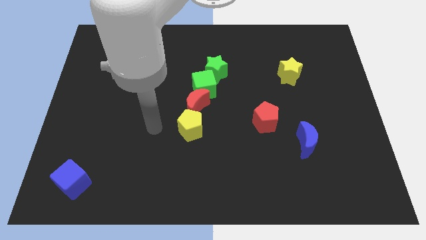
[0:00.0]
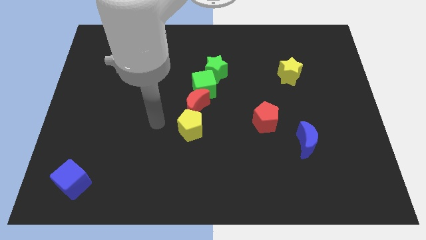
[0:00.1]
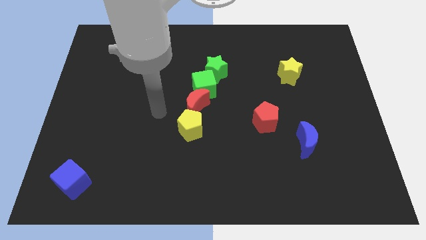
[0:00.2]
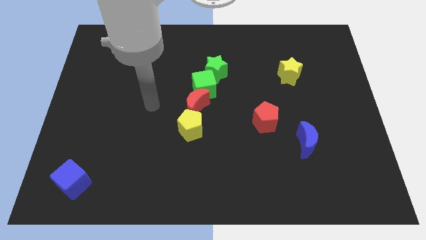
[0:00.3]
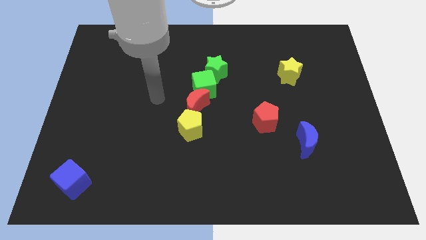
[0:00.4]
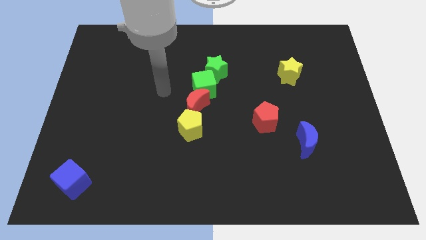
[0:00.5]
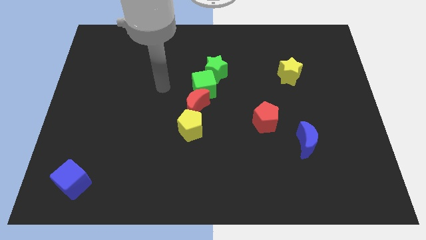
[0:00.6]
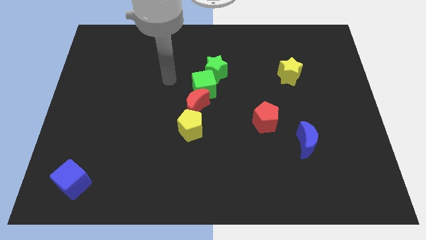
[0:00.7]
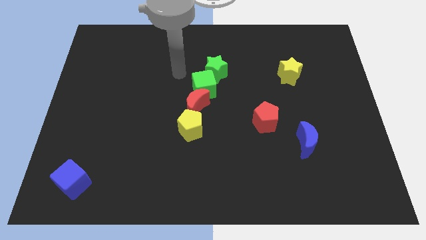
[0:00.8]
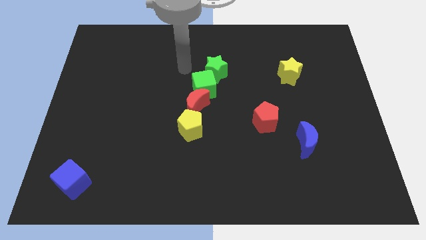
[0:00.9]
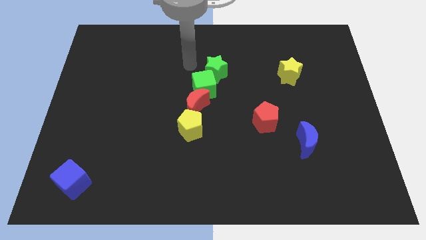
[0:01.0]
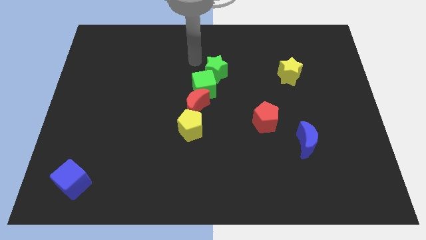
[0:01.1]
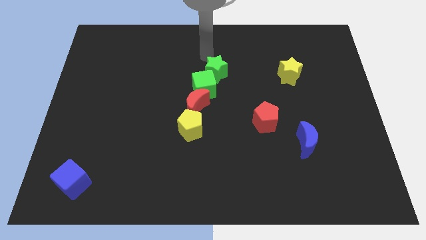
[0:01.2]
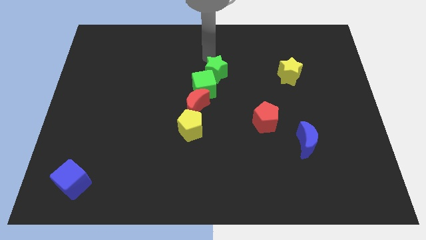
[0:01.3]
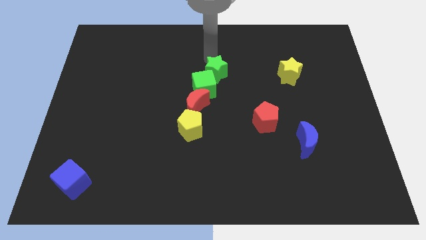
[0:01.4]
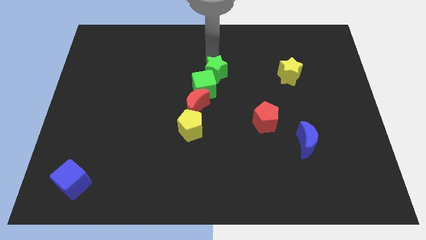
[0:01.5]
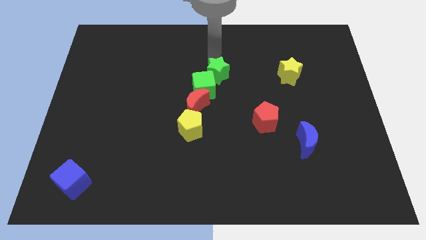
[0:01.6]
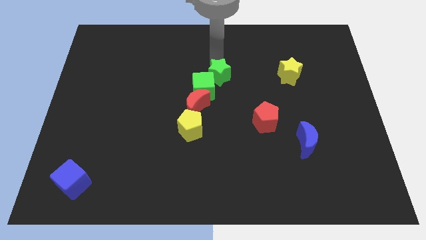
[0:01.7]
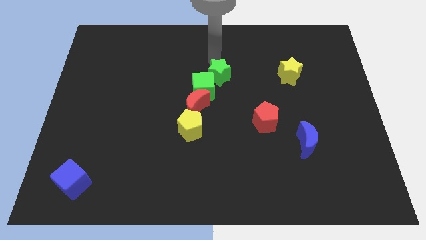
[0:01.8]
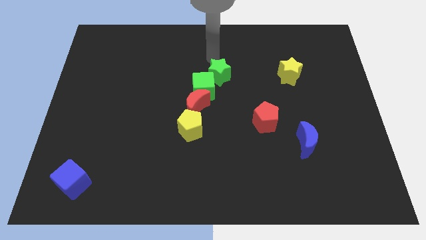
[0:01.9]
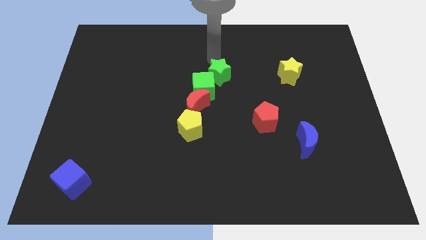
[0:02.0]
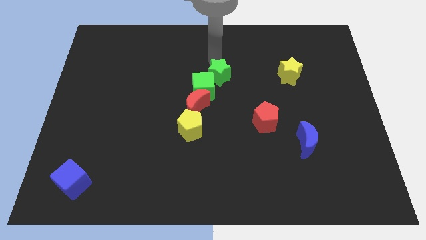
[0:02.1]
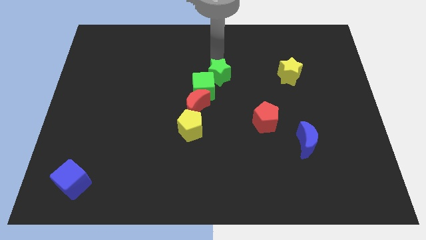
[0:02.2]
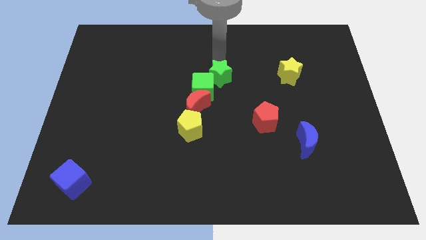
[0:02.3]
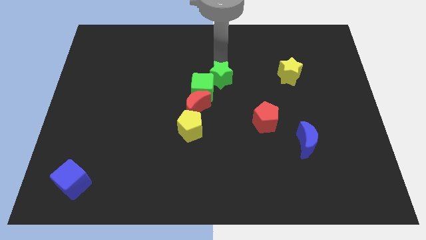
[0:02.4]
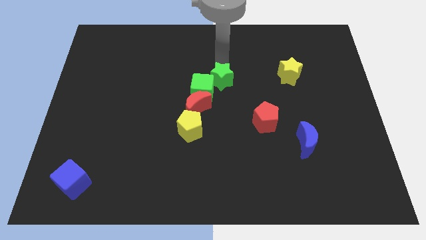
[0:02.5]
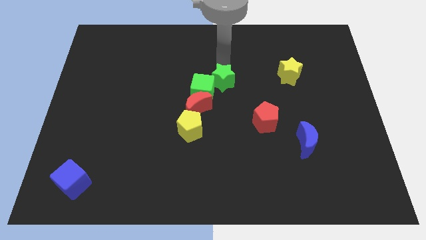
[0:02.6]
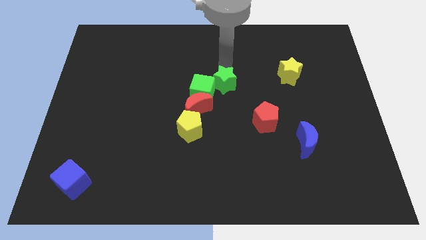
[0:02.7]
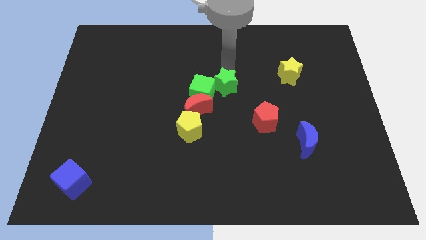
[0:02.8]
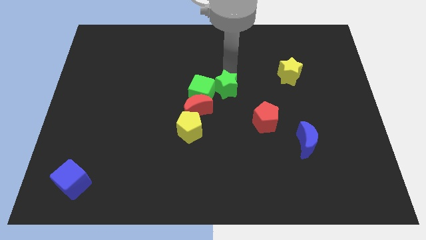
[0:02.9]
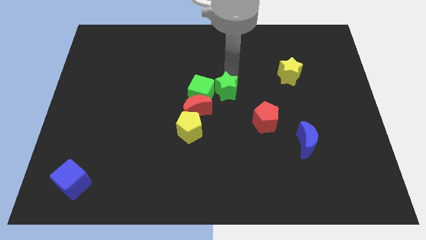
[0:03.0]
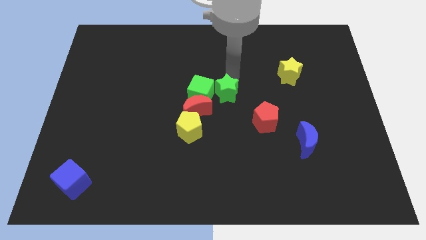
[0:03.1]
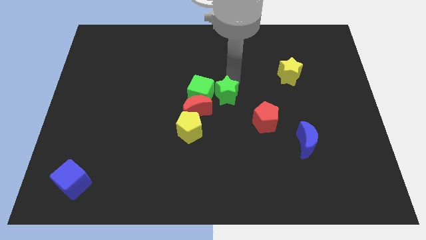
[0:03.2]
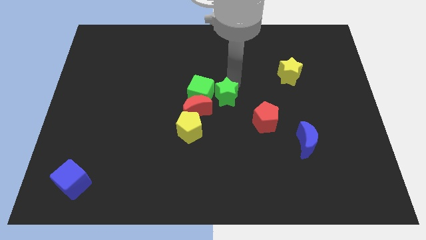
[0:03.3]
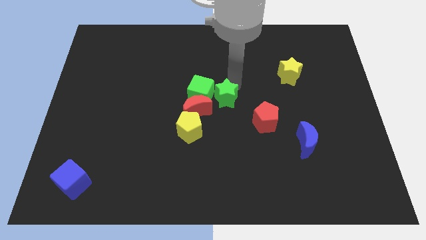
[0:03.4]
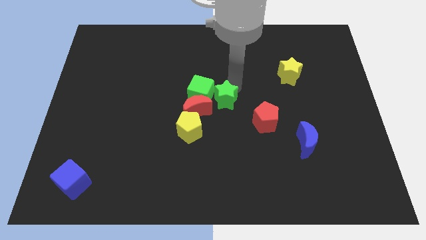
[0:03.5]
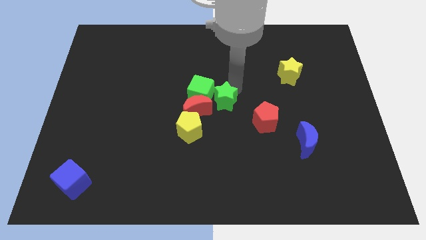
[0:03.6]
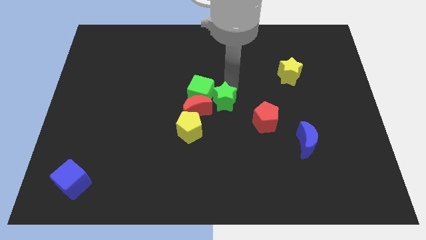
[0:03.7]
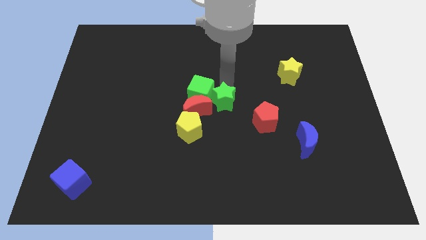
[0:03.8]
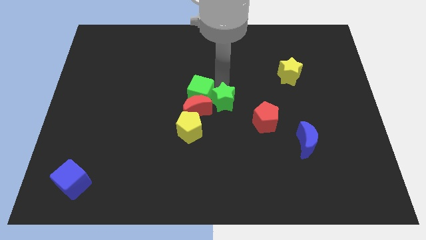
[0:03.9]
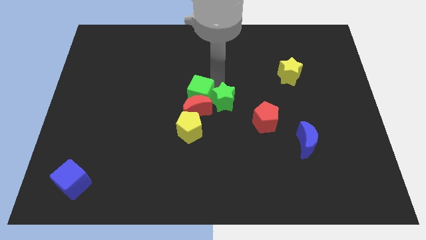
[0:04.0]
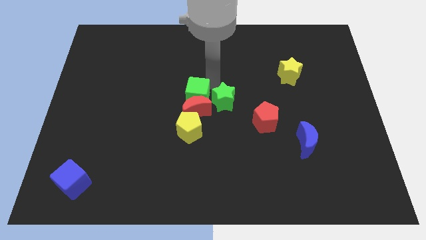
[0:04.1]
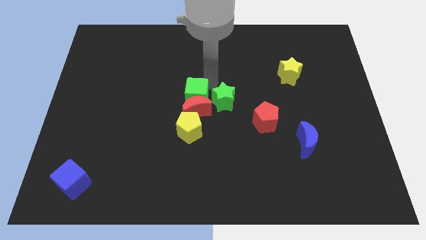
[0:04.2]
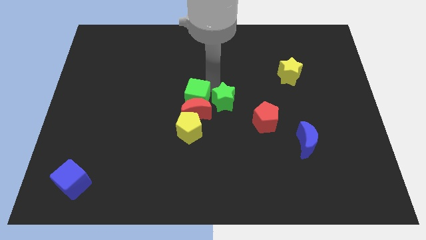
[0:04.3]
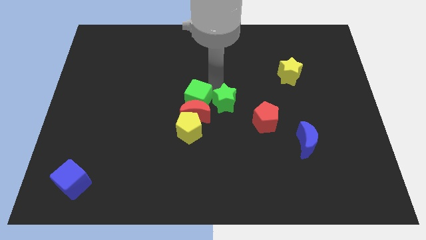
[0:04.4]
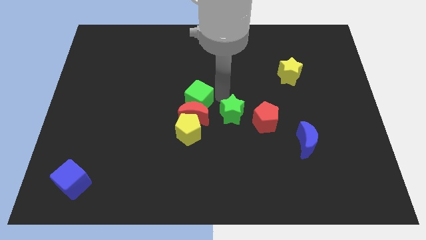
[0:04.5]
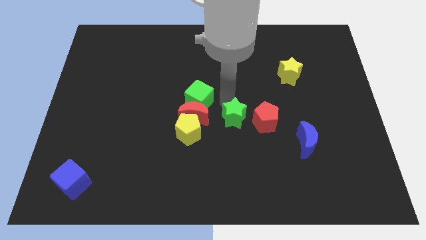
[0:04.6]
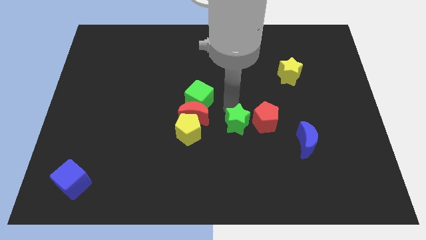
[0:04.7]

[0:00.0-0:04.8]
push the green star to the bottom left of the red pentagon

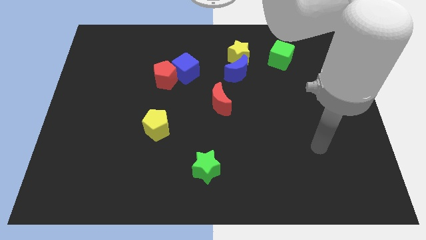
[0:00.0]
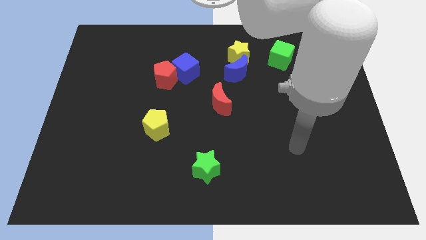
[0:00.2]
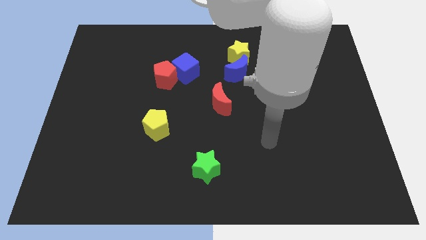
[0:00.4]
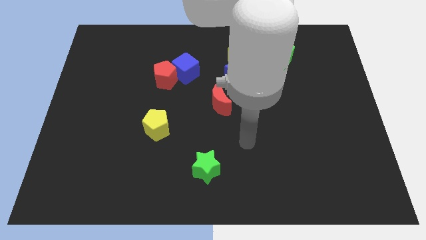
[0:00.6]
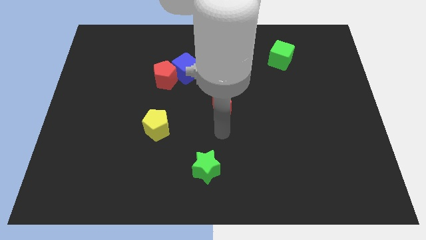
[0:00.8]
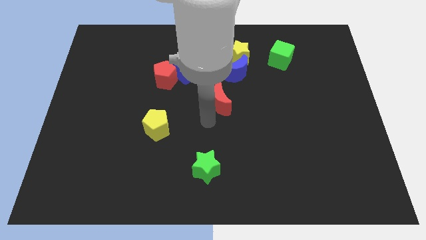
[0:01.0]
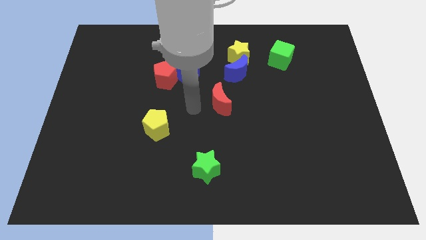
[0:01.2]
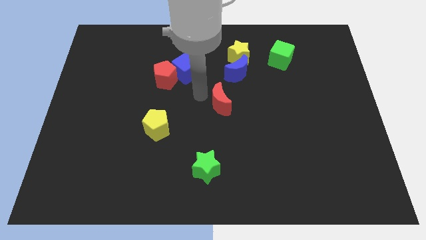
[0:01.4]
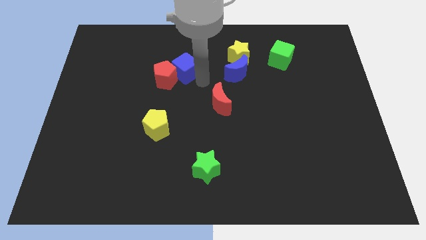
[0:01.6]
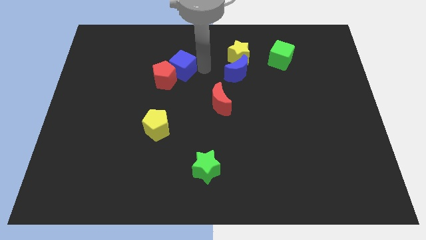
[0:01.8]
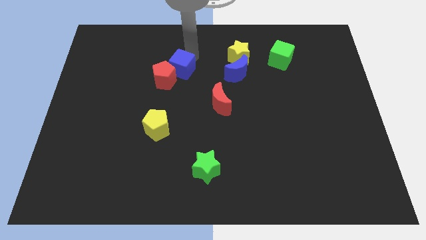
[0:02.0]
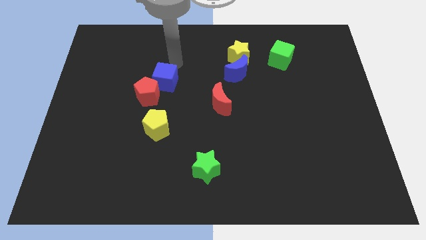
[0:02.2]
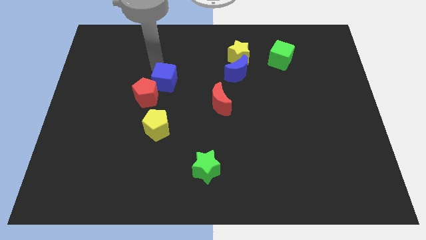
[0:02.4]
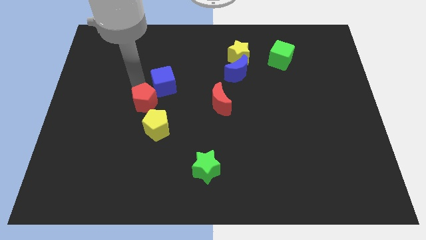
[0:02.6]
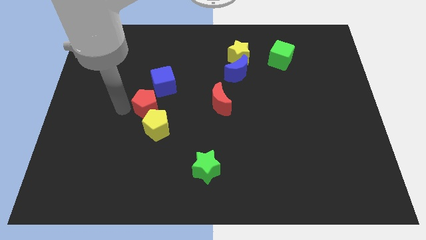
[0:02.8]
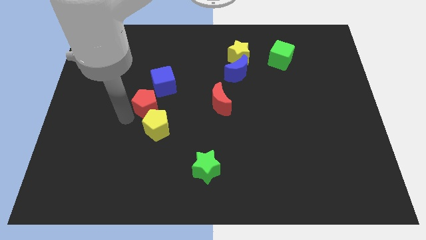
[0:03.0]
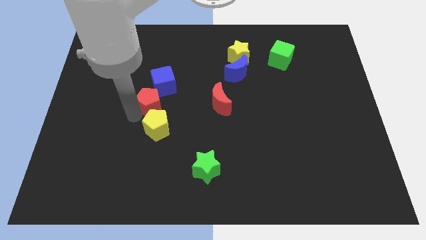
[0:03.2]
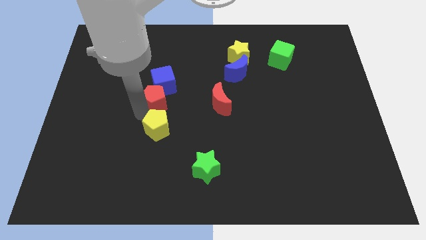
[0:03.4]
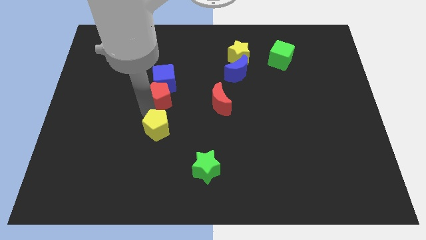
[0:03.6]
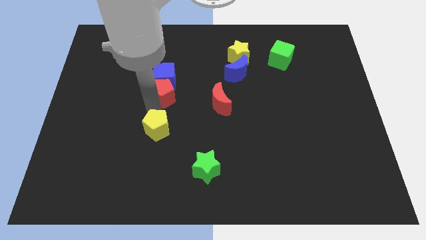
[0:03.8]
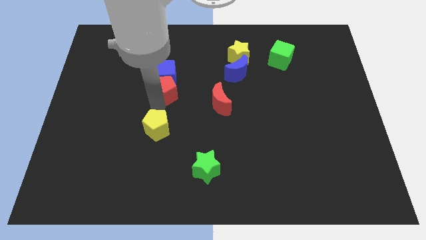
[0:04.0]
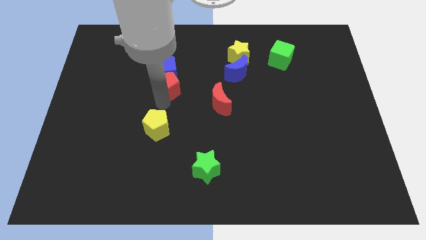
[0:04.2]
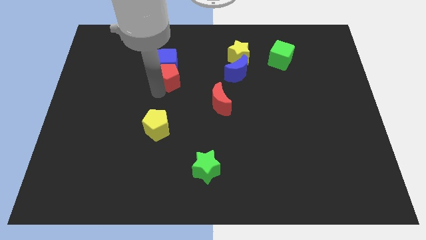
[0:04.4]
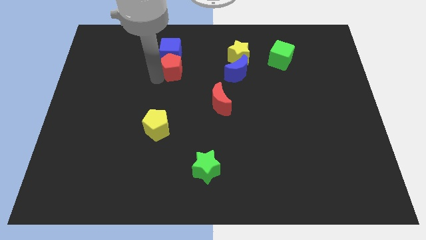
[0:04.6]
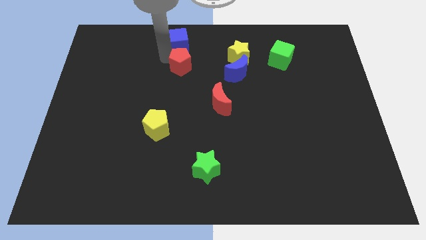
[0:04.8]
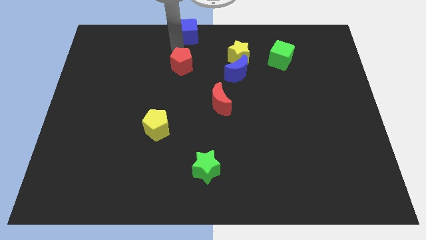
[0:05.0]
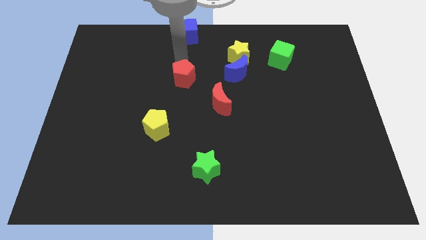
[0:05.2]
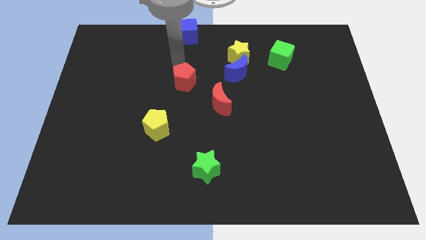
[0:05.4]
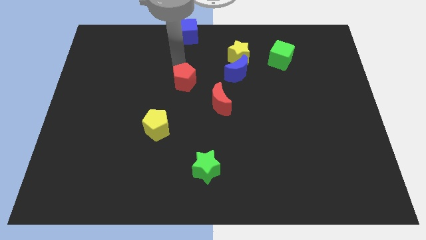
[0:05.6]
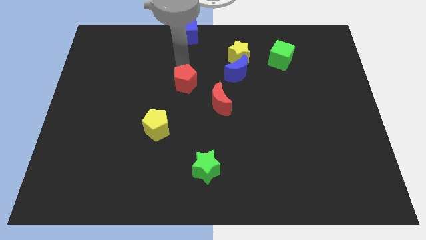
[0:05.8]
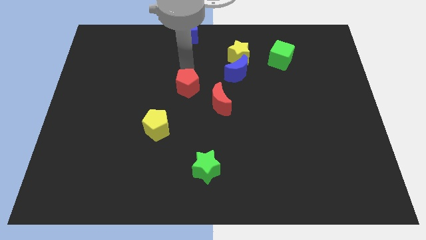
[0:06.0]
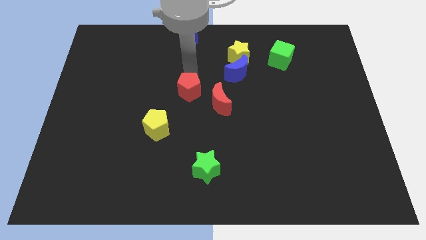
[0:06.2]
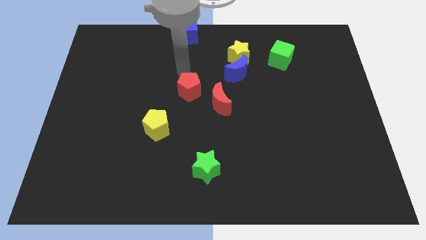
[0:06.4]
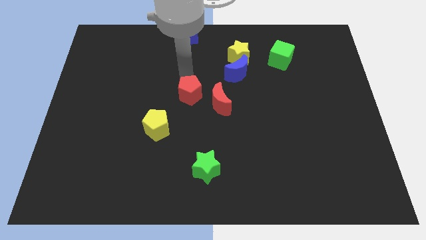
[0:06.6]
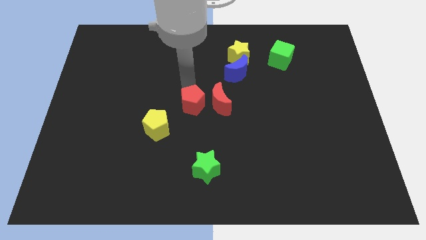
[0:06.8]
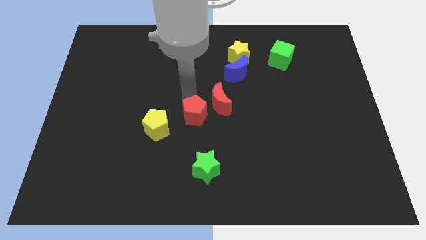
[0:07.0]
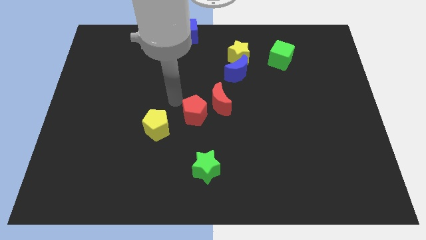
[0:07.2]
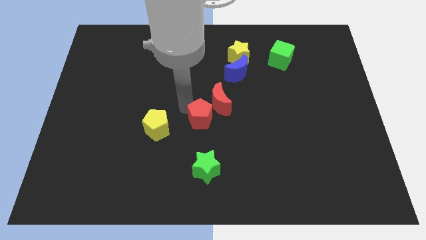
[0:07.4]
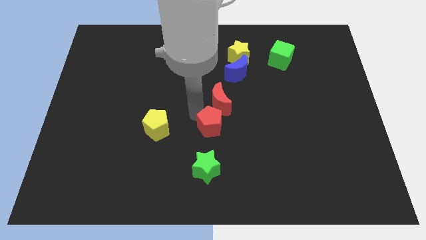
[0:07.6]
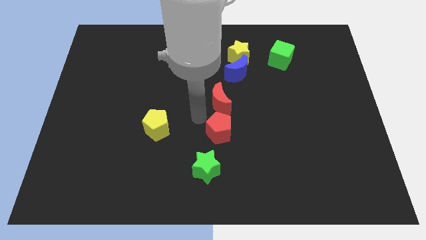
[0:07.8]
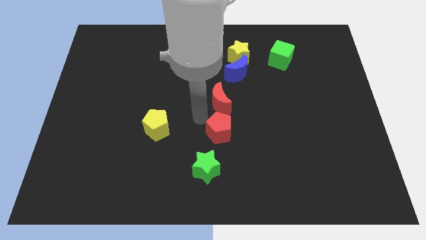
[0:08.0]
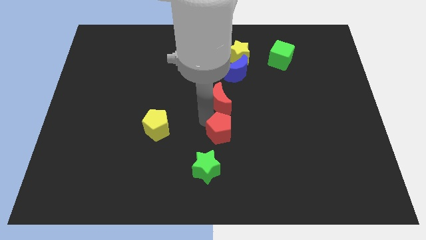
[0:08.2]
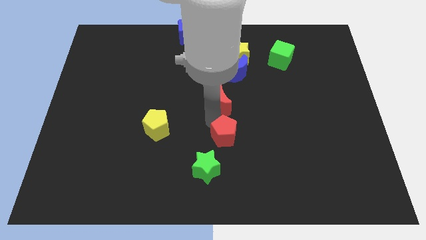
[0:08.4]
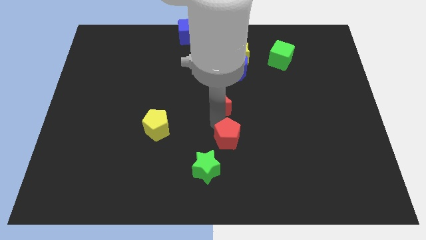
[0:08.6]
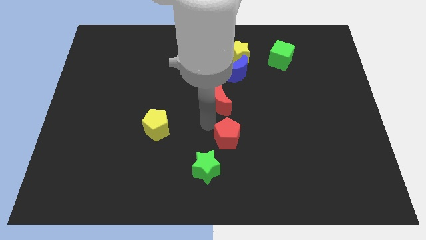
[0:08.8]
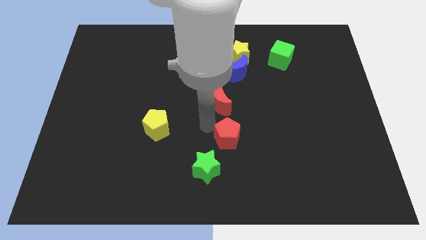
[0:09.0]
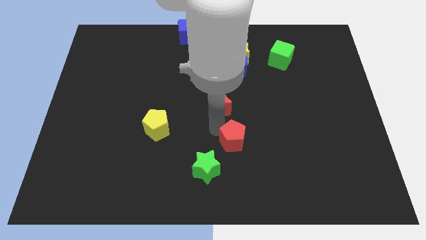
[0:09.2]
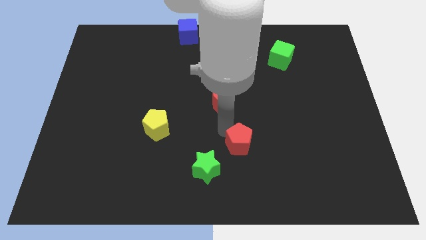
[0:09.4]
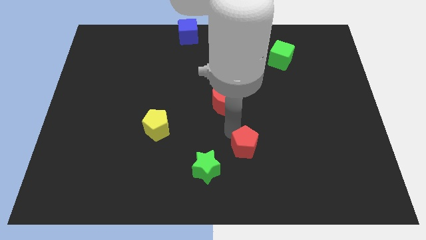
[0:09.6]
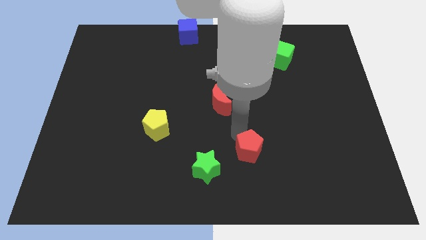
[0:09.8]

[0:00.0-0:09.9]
push the red pentagon to the right of the green star
